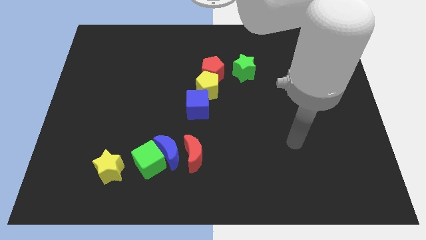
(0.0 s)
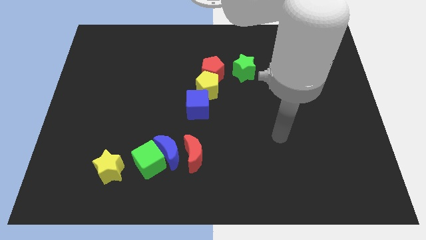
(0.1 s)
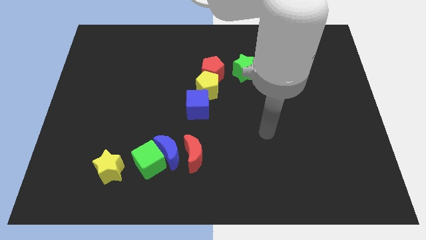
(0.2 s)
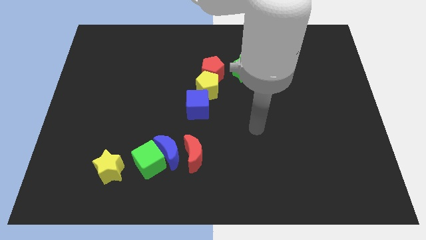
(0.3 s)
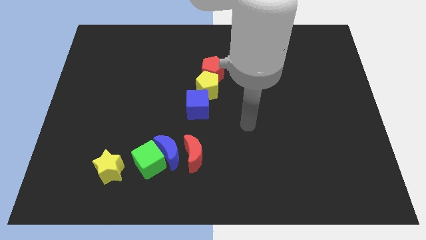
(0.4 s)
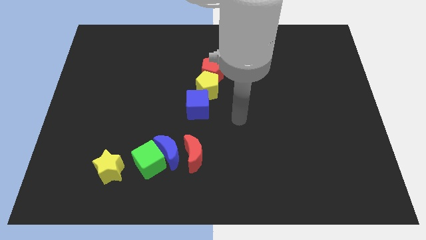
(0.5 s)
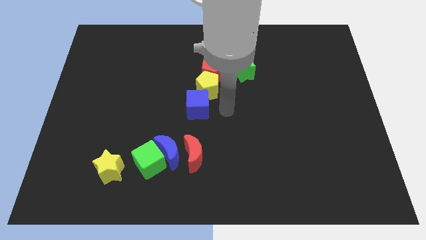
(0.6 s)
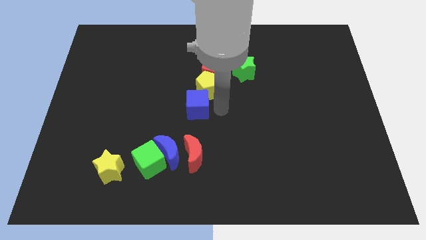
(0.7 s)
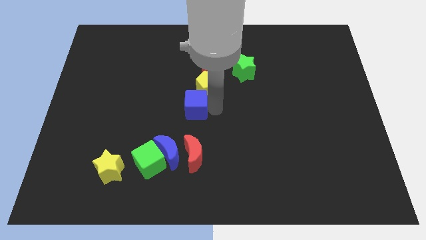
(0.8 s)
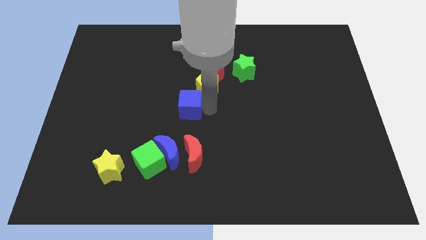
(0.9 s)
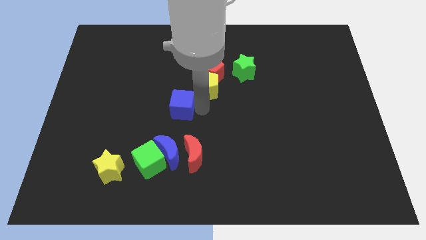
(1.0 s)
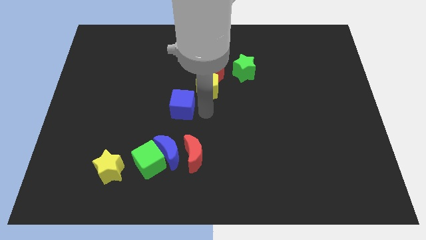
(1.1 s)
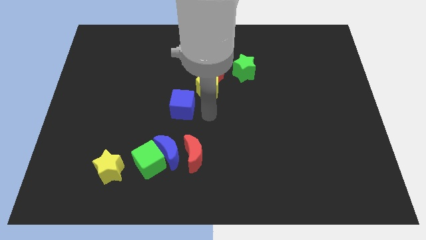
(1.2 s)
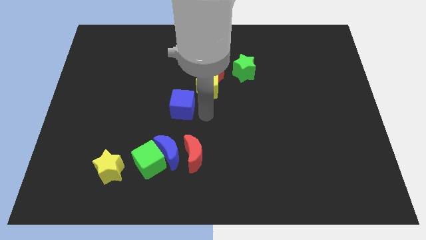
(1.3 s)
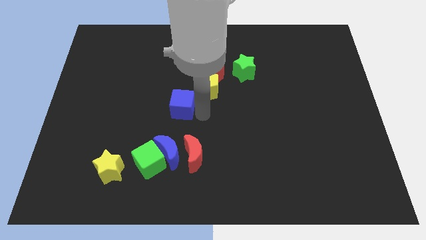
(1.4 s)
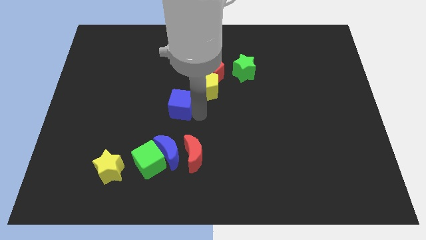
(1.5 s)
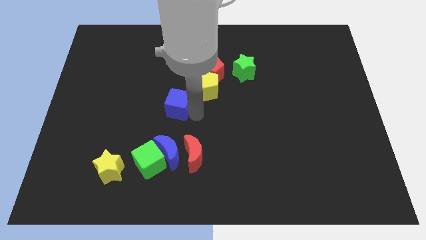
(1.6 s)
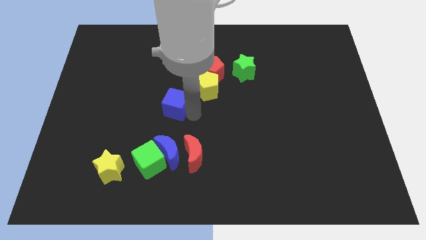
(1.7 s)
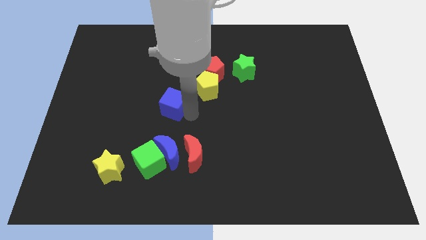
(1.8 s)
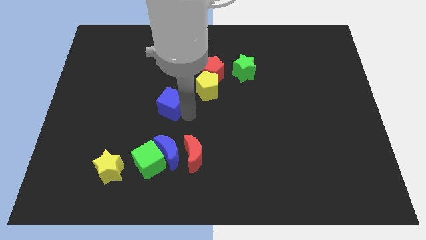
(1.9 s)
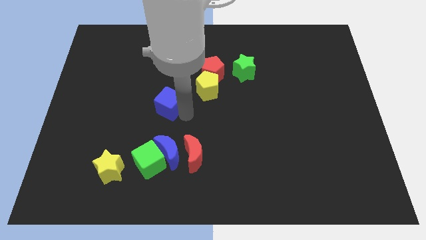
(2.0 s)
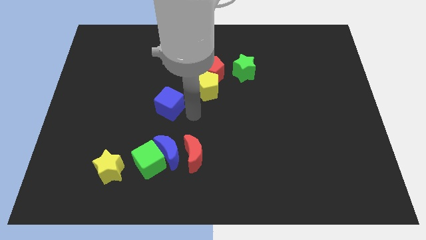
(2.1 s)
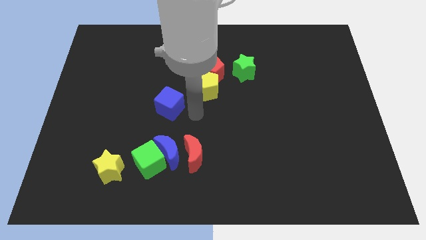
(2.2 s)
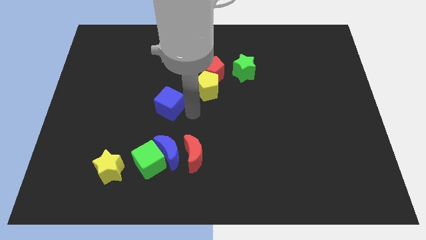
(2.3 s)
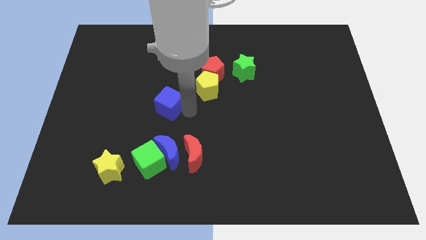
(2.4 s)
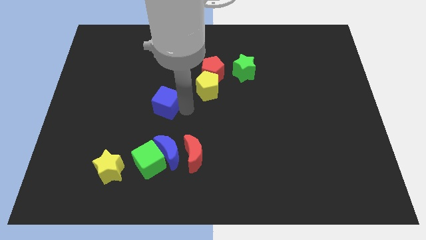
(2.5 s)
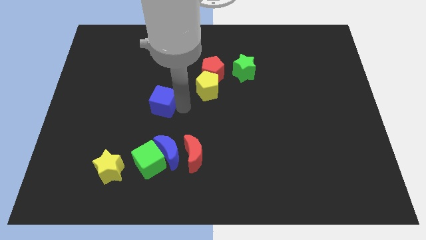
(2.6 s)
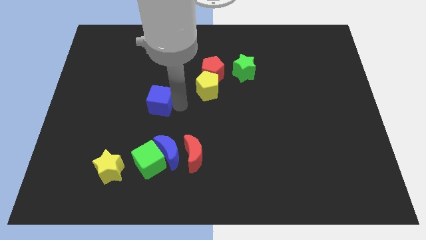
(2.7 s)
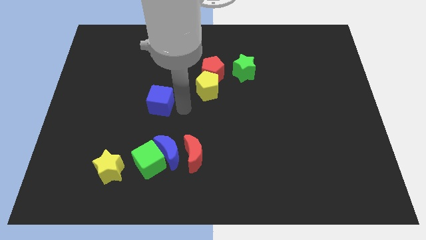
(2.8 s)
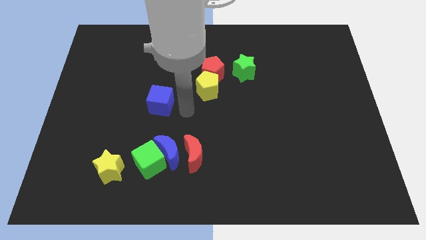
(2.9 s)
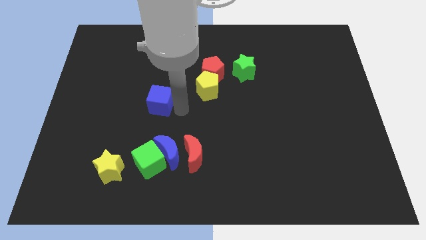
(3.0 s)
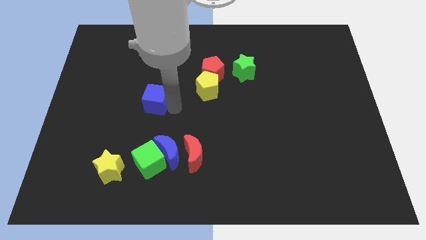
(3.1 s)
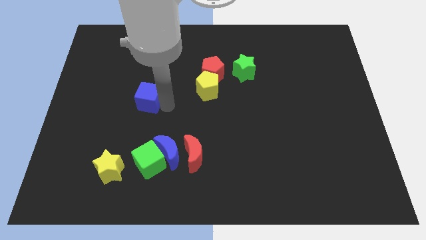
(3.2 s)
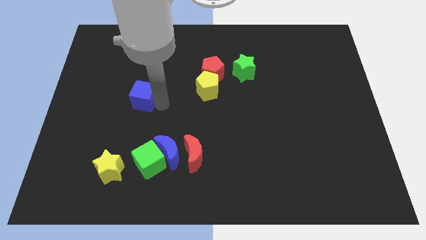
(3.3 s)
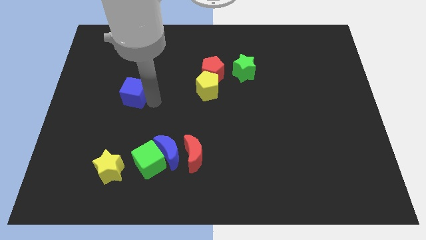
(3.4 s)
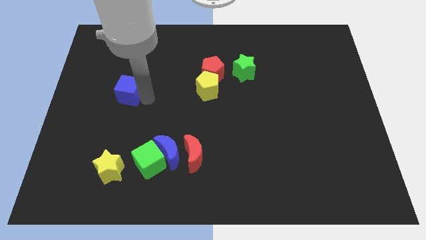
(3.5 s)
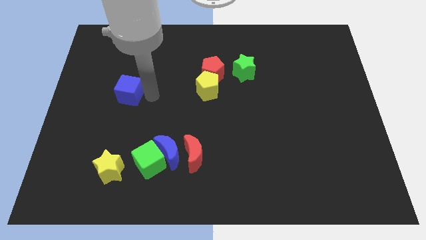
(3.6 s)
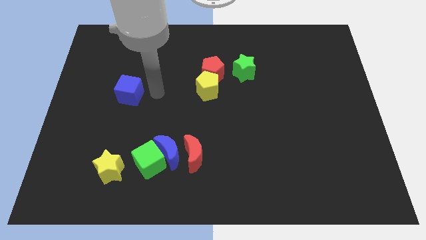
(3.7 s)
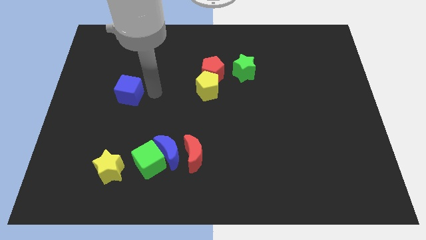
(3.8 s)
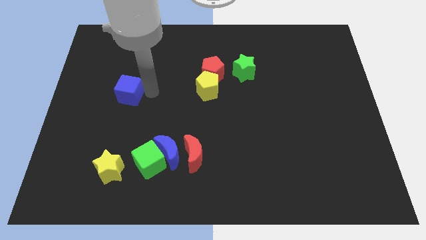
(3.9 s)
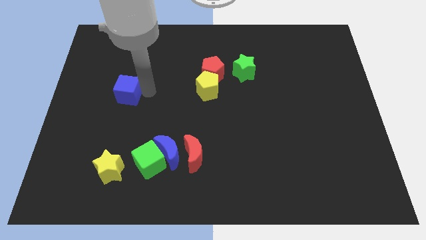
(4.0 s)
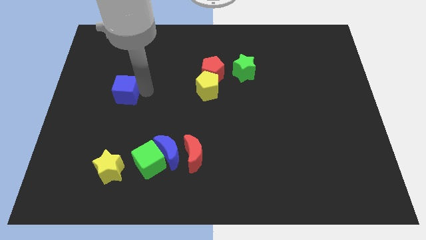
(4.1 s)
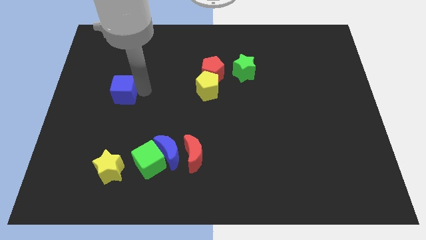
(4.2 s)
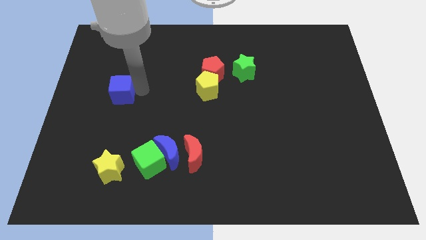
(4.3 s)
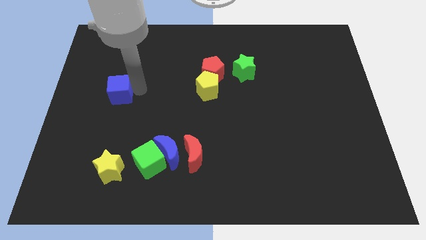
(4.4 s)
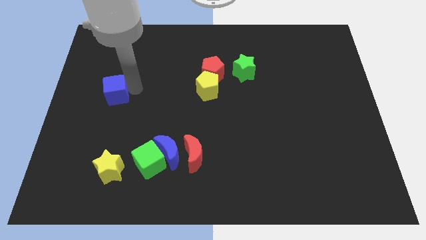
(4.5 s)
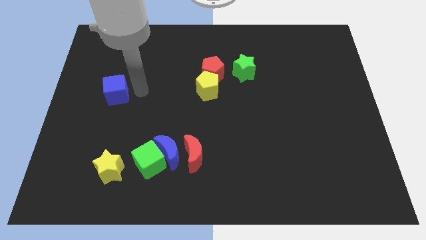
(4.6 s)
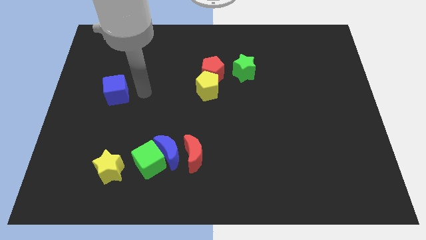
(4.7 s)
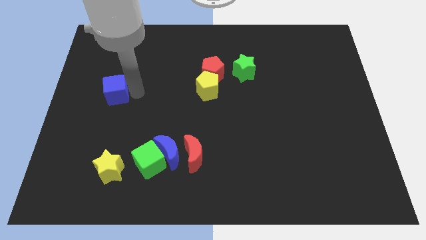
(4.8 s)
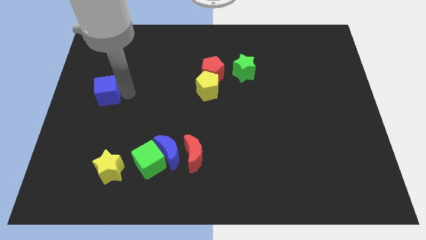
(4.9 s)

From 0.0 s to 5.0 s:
move the blue cube to the left side of the board

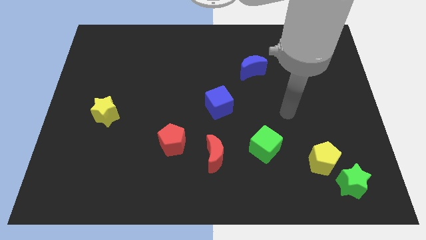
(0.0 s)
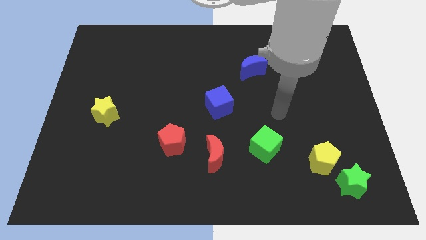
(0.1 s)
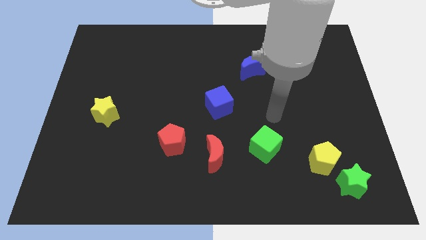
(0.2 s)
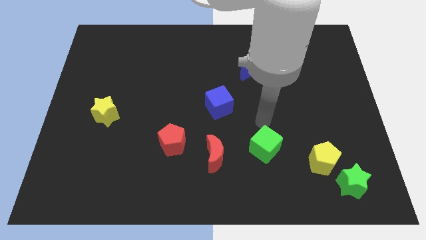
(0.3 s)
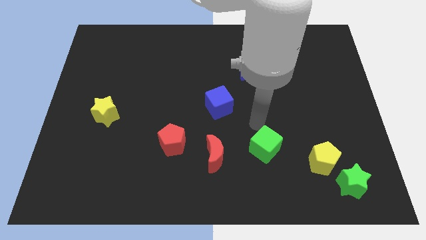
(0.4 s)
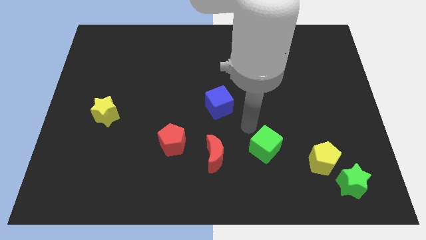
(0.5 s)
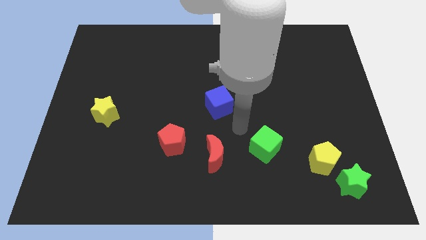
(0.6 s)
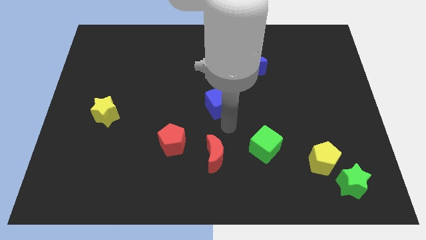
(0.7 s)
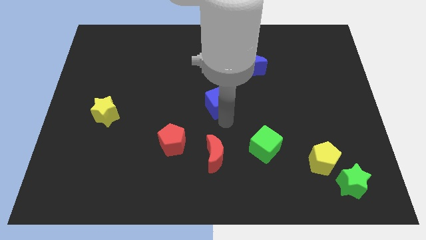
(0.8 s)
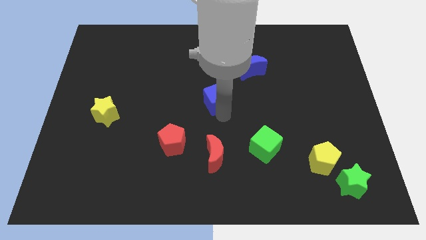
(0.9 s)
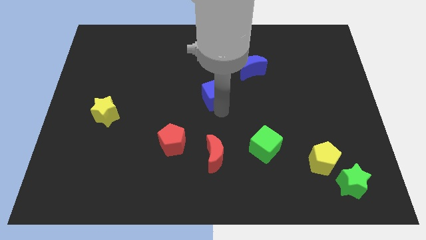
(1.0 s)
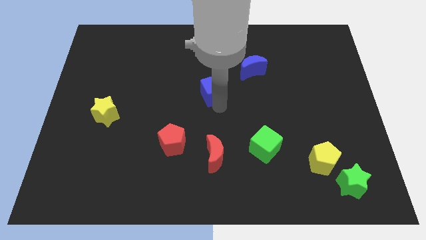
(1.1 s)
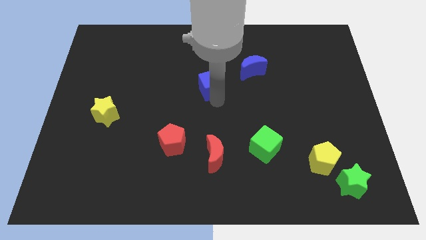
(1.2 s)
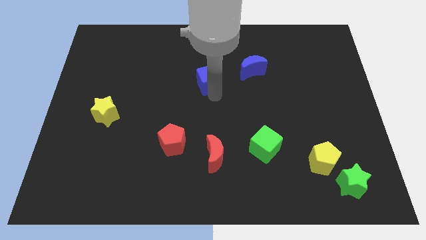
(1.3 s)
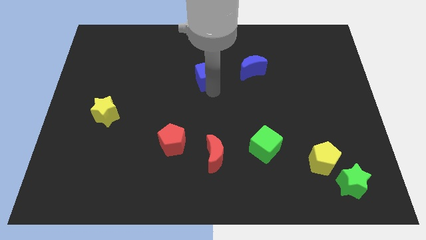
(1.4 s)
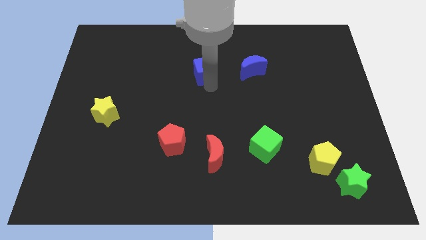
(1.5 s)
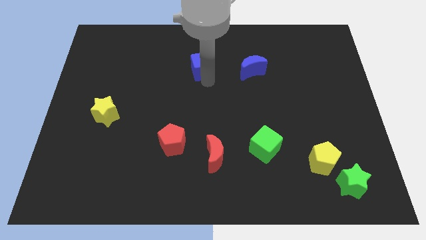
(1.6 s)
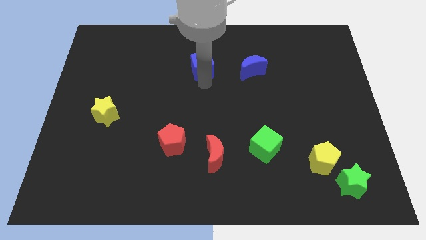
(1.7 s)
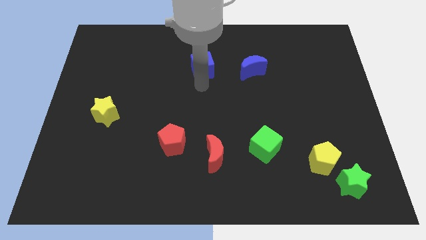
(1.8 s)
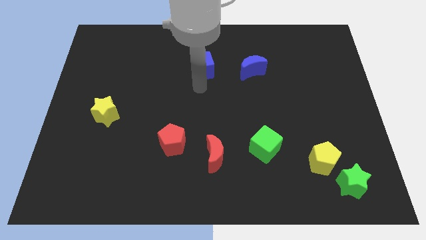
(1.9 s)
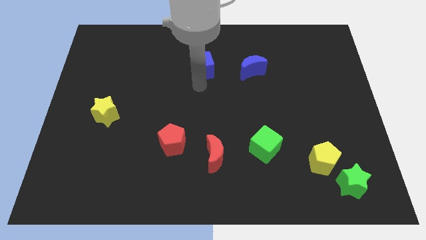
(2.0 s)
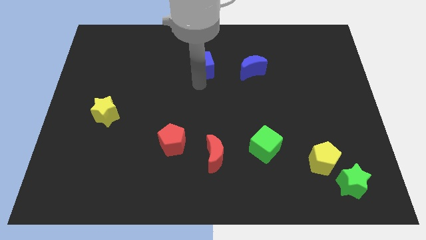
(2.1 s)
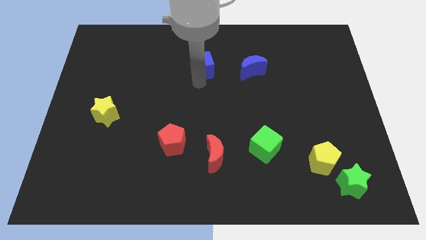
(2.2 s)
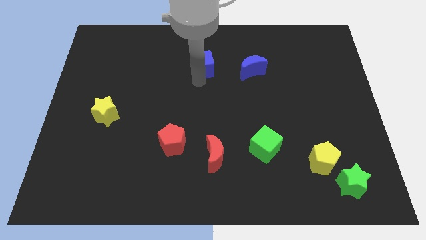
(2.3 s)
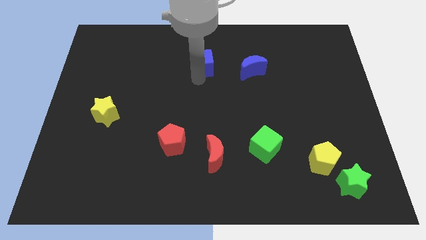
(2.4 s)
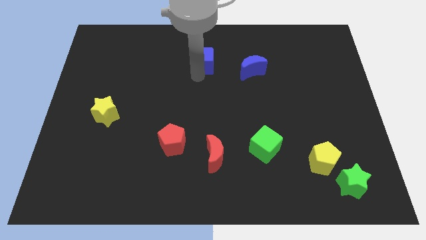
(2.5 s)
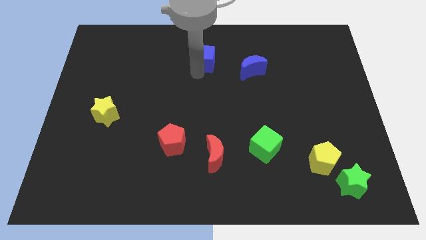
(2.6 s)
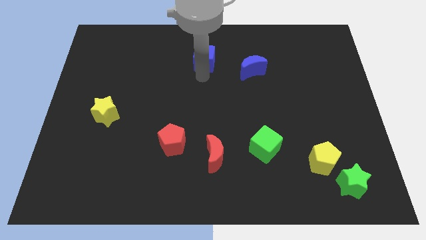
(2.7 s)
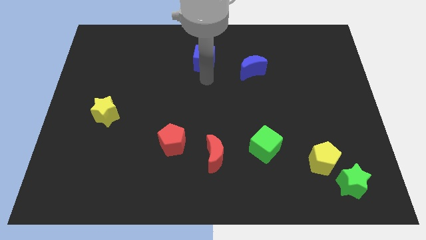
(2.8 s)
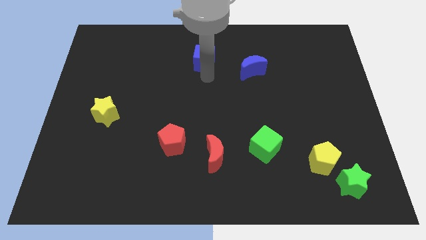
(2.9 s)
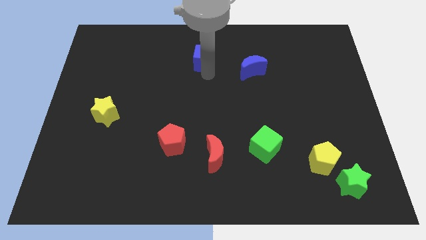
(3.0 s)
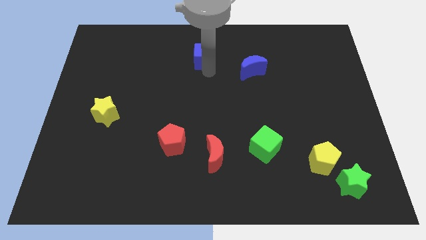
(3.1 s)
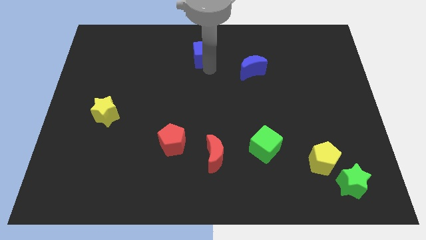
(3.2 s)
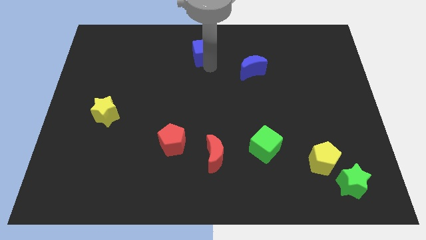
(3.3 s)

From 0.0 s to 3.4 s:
slide the blue cube to the towards your base
